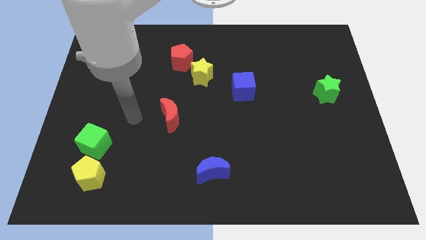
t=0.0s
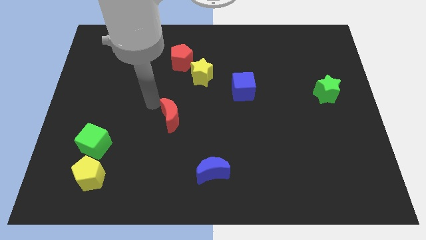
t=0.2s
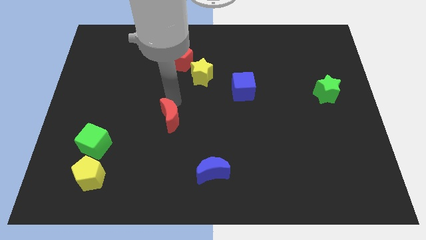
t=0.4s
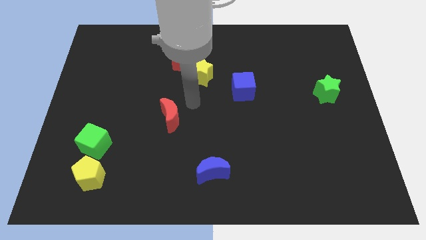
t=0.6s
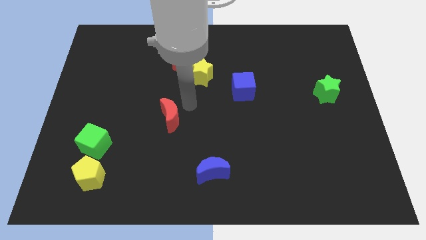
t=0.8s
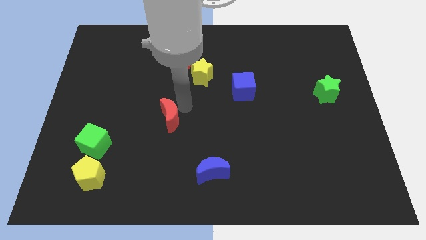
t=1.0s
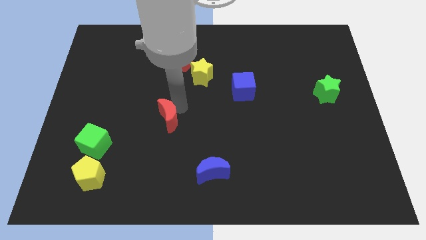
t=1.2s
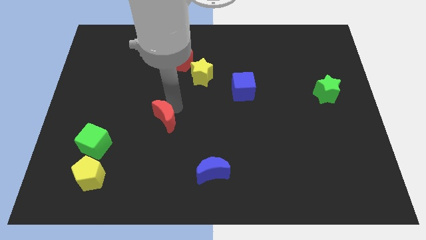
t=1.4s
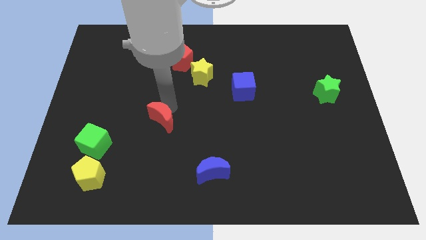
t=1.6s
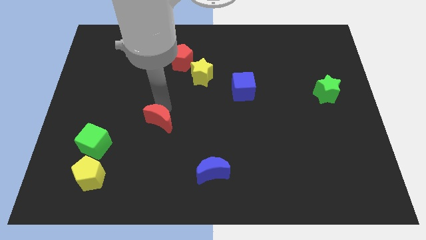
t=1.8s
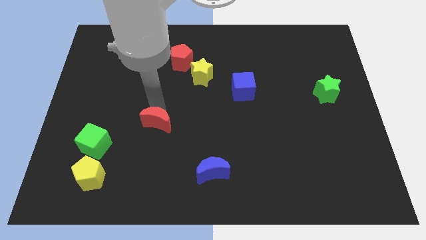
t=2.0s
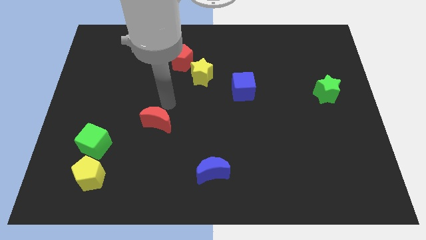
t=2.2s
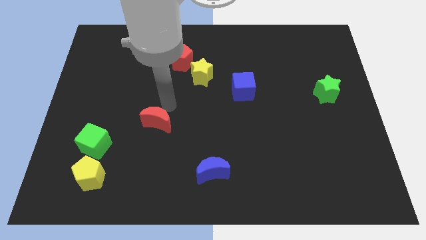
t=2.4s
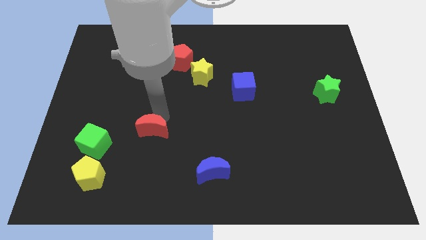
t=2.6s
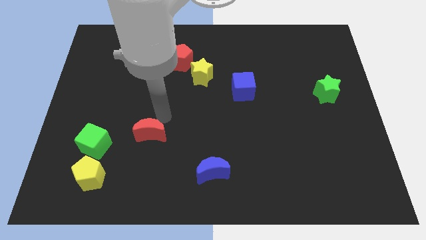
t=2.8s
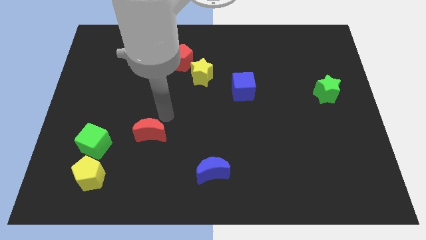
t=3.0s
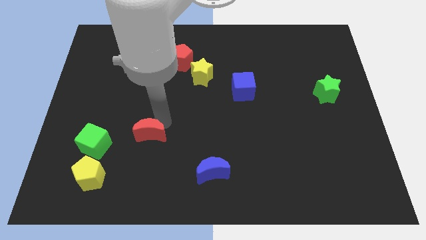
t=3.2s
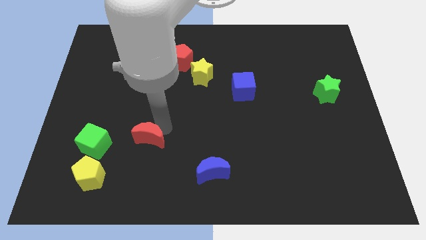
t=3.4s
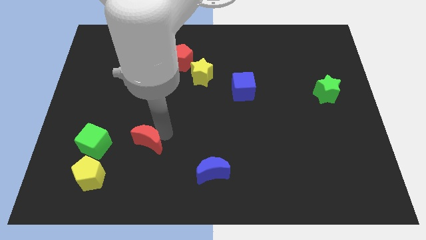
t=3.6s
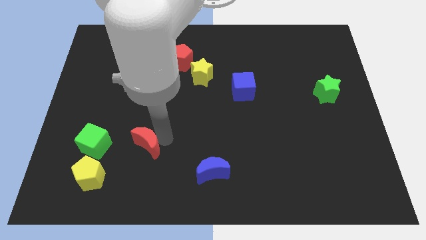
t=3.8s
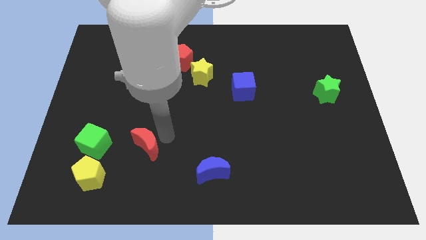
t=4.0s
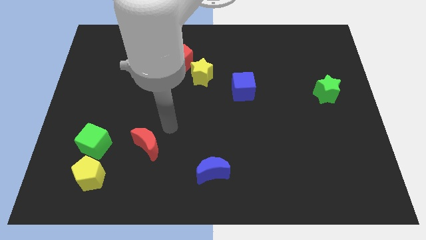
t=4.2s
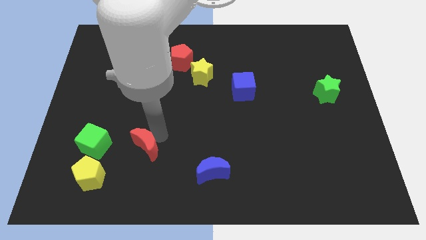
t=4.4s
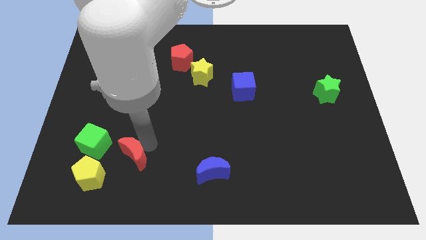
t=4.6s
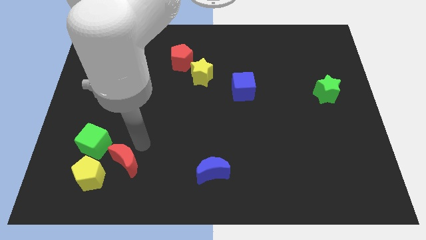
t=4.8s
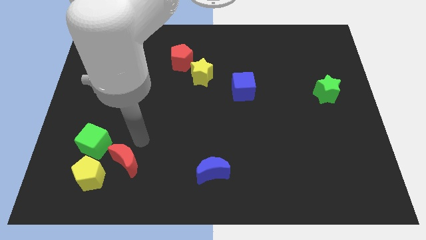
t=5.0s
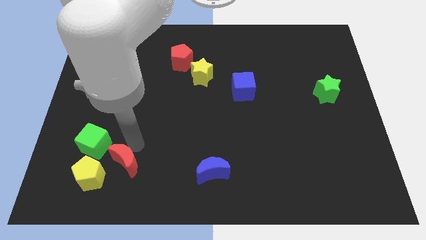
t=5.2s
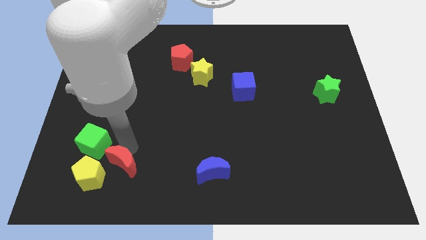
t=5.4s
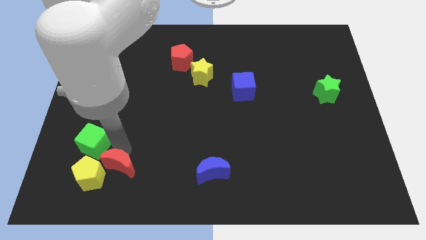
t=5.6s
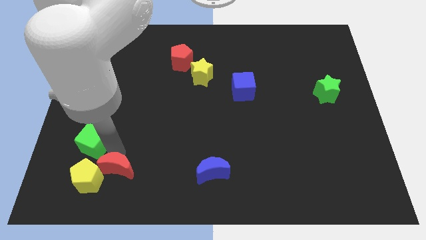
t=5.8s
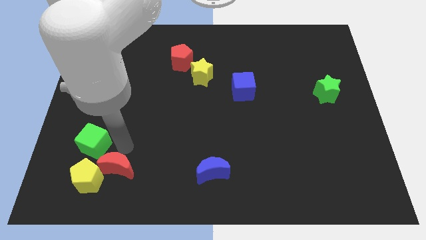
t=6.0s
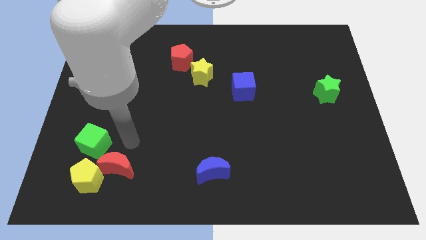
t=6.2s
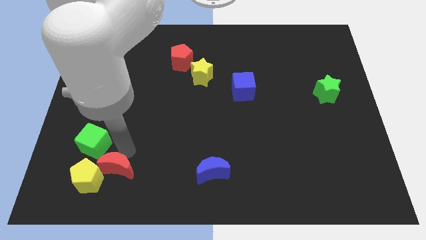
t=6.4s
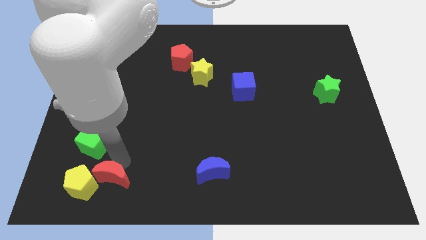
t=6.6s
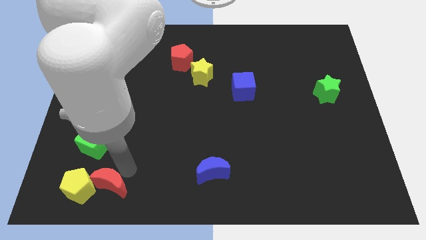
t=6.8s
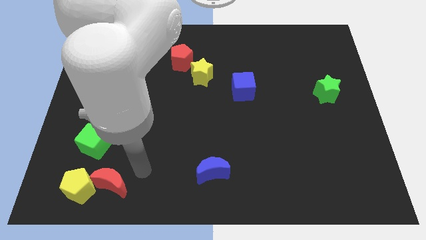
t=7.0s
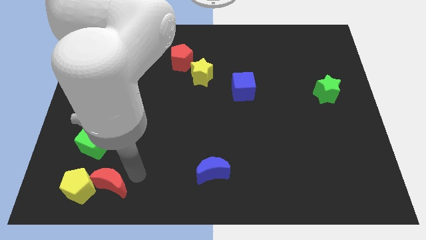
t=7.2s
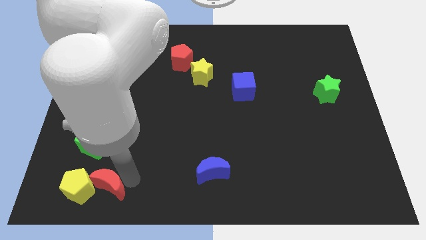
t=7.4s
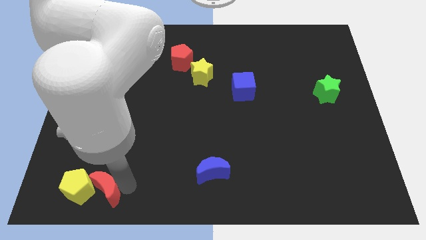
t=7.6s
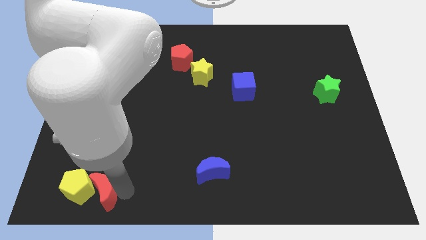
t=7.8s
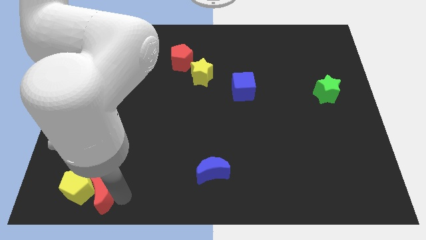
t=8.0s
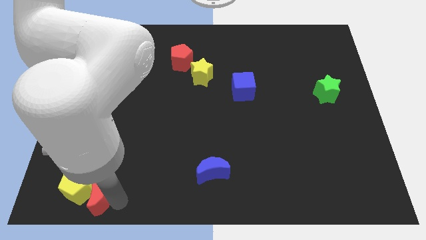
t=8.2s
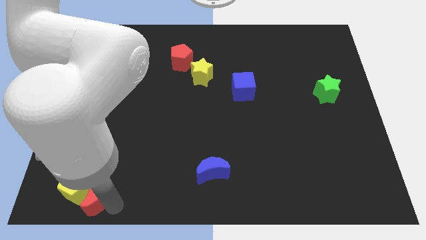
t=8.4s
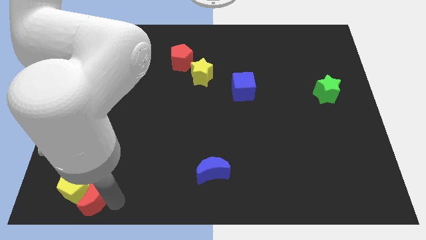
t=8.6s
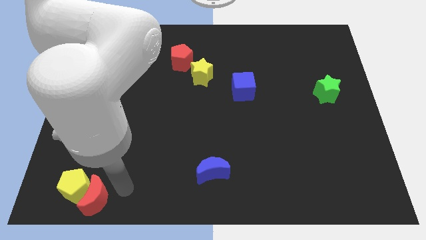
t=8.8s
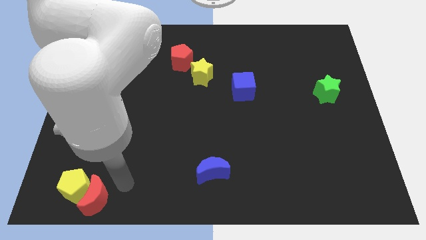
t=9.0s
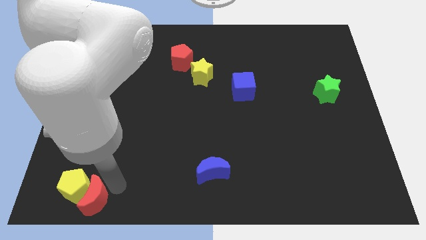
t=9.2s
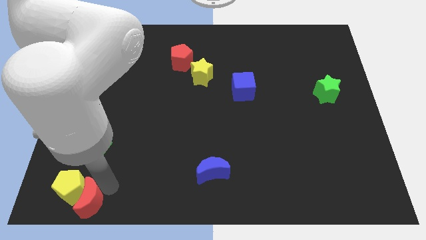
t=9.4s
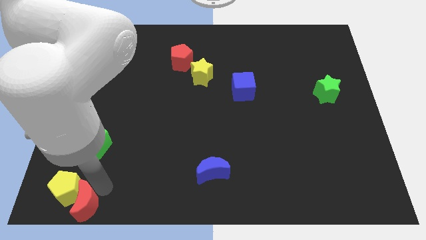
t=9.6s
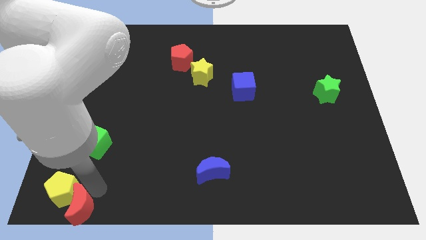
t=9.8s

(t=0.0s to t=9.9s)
slide the red moon to the lower left corner

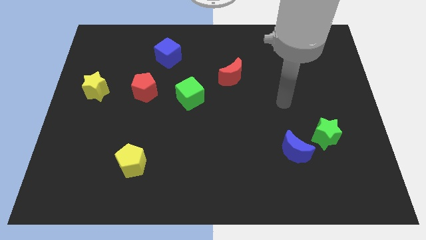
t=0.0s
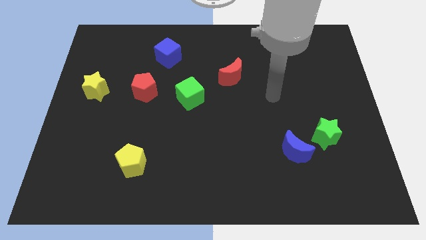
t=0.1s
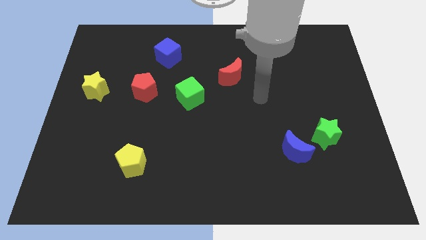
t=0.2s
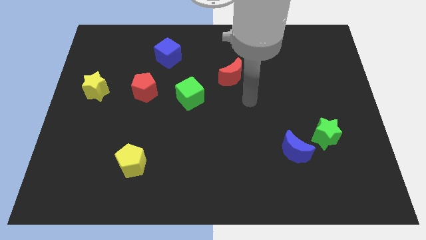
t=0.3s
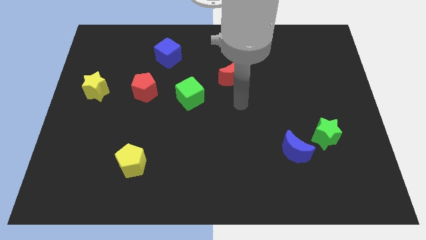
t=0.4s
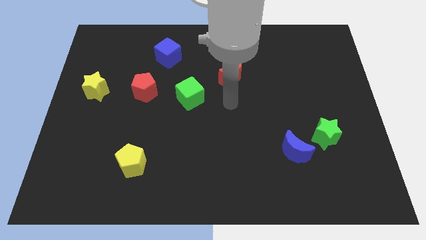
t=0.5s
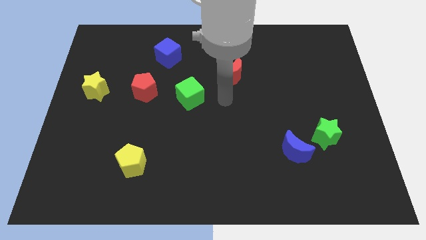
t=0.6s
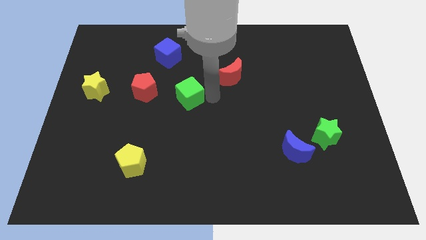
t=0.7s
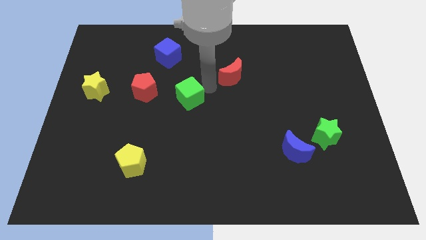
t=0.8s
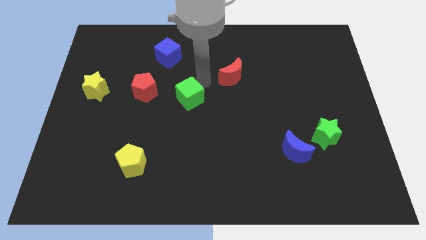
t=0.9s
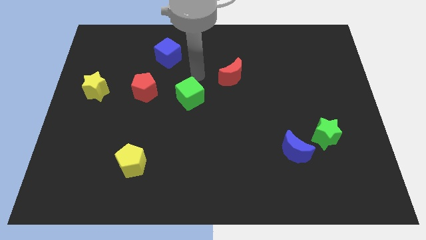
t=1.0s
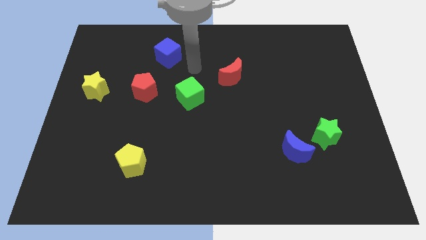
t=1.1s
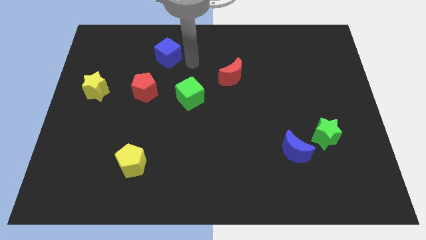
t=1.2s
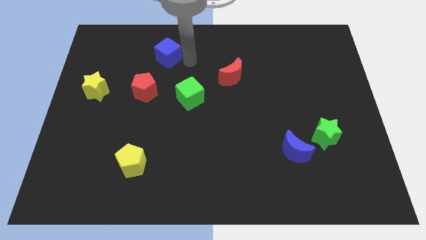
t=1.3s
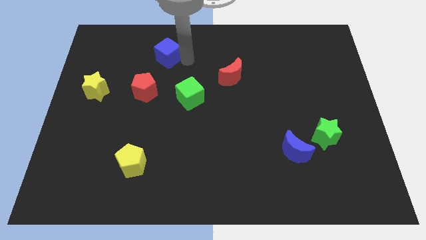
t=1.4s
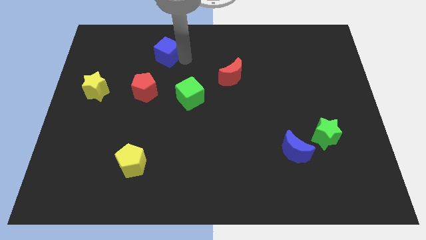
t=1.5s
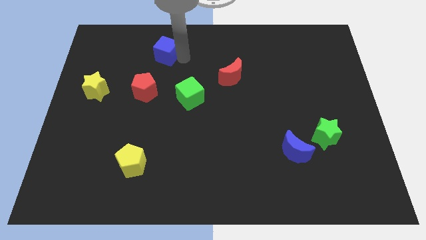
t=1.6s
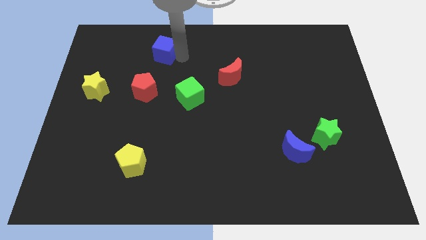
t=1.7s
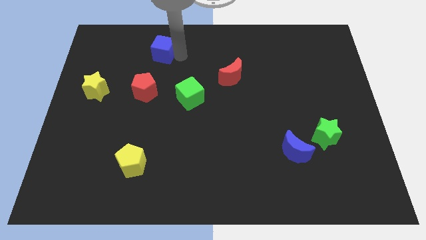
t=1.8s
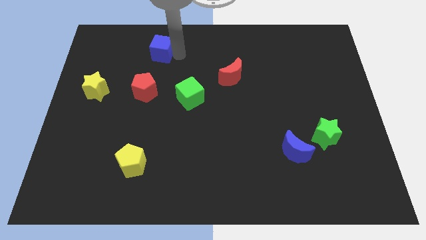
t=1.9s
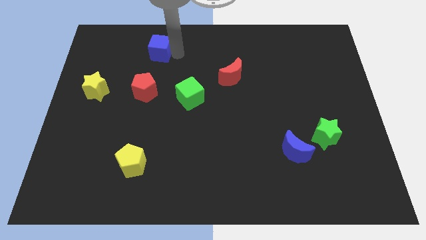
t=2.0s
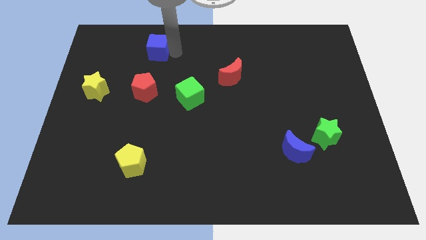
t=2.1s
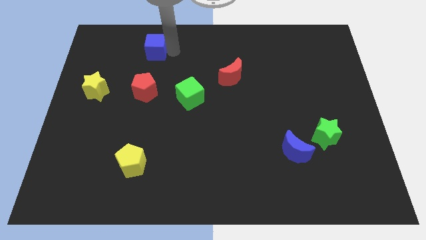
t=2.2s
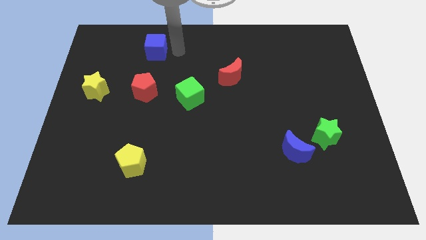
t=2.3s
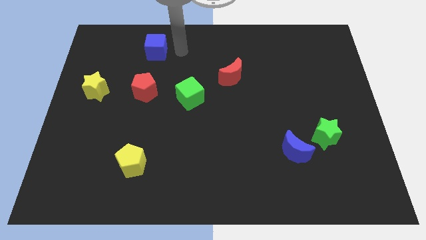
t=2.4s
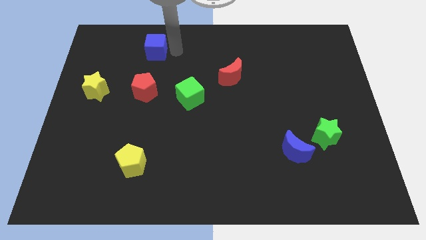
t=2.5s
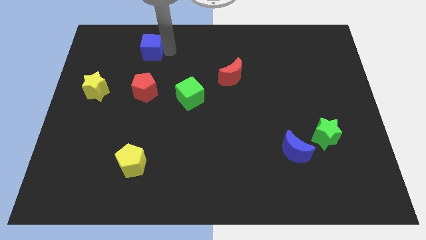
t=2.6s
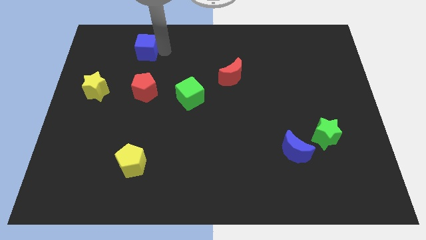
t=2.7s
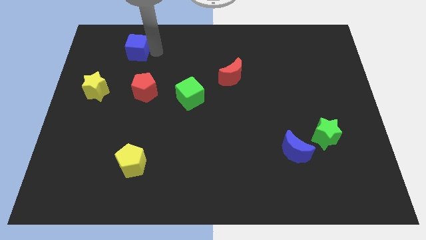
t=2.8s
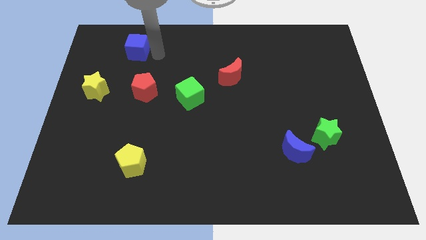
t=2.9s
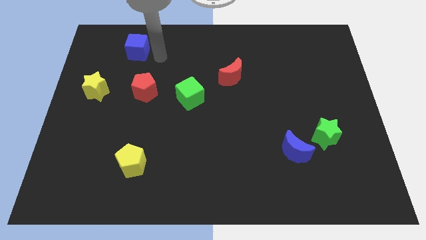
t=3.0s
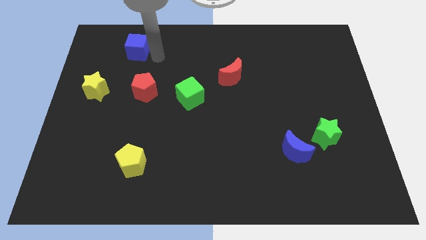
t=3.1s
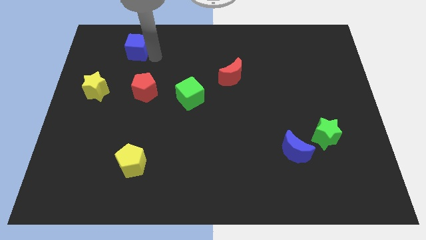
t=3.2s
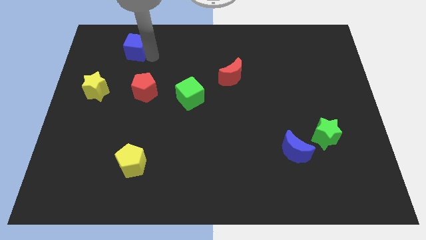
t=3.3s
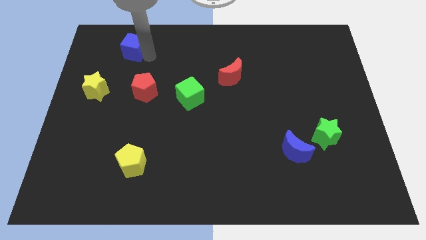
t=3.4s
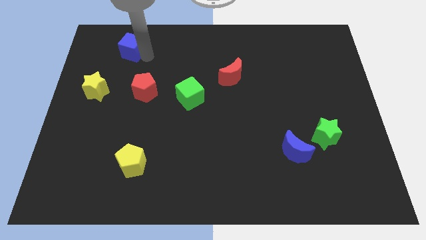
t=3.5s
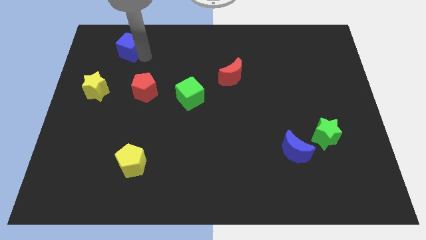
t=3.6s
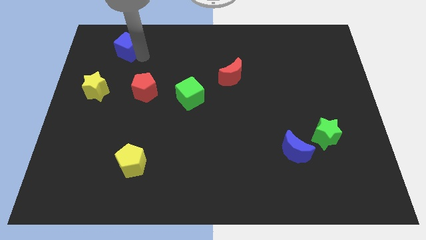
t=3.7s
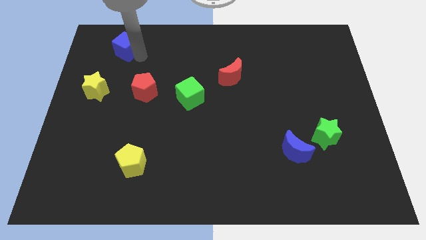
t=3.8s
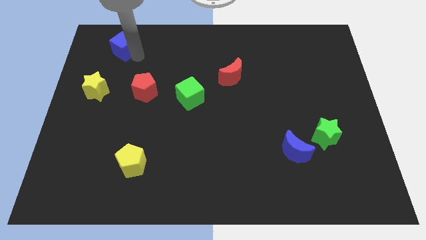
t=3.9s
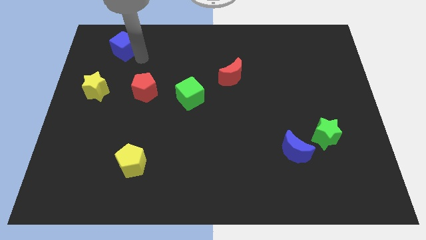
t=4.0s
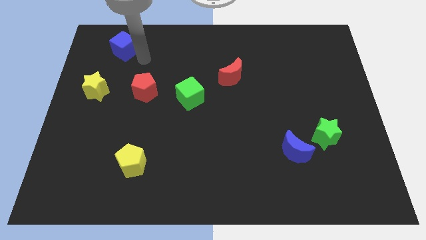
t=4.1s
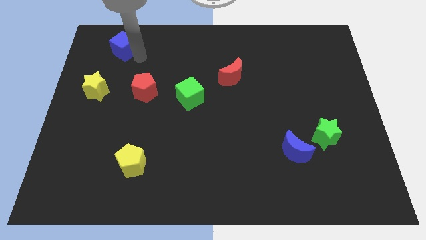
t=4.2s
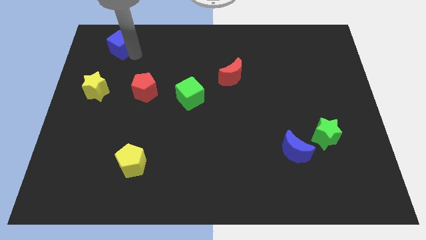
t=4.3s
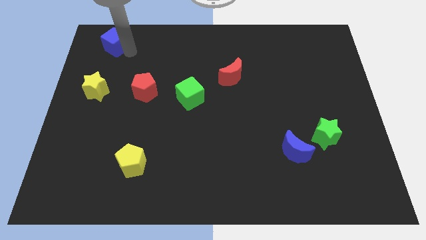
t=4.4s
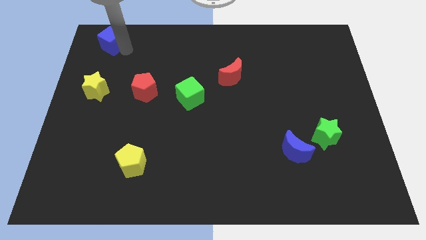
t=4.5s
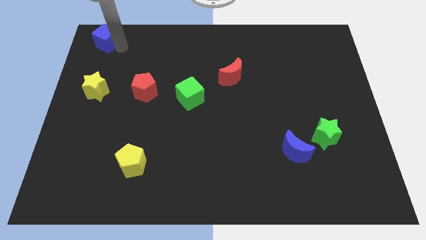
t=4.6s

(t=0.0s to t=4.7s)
push the blue cube to the top left of the board
